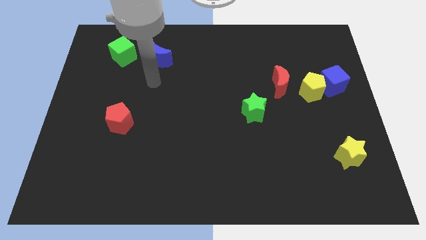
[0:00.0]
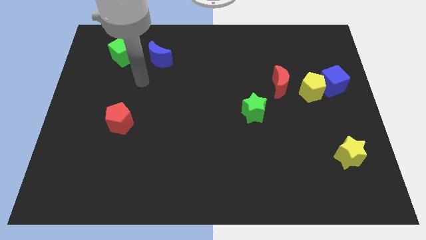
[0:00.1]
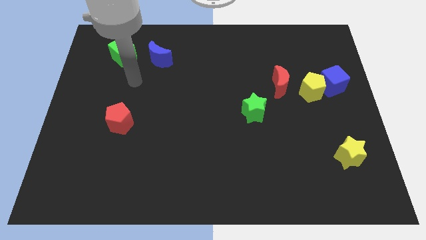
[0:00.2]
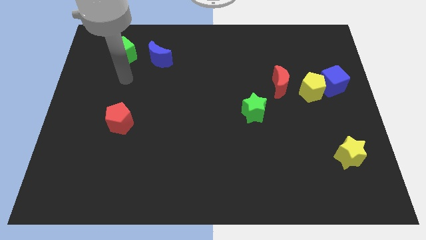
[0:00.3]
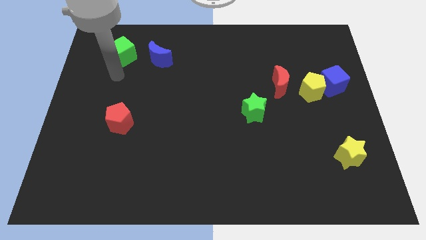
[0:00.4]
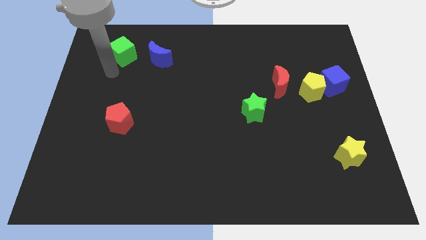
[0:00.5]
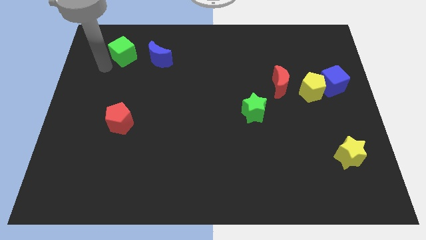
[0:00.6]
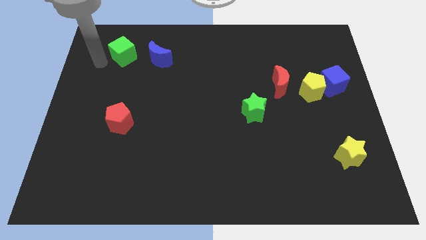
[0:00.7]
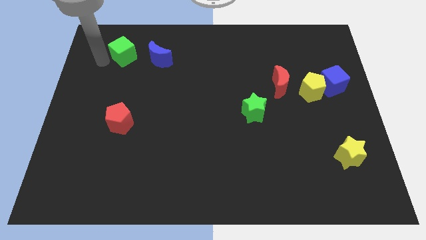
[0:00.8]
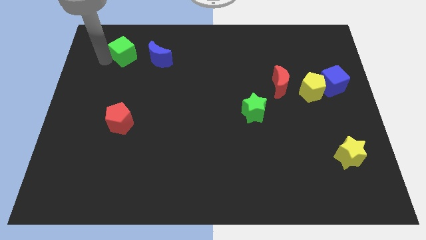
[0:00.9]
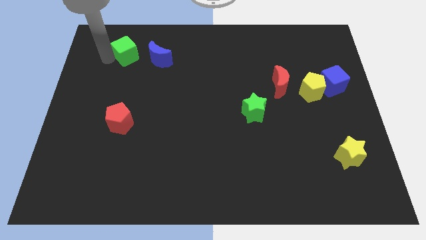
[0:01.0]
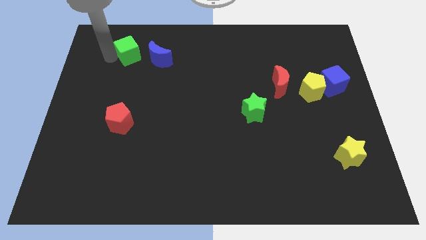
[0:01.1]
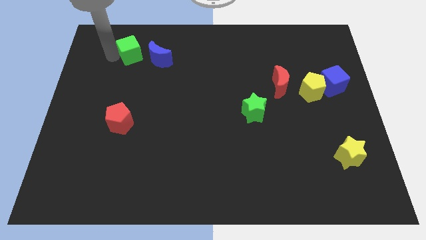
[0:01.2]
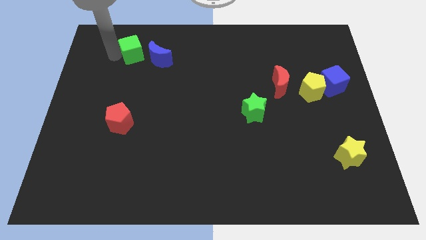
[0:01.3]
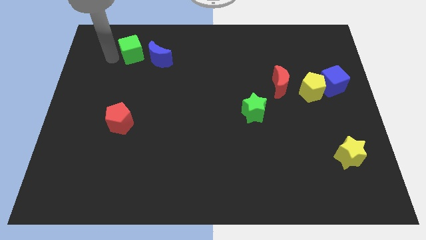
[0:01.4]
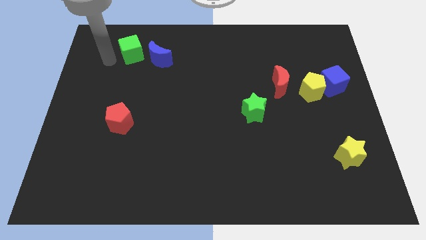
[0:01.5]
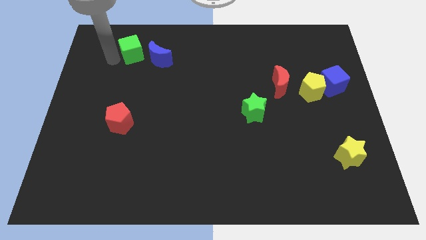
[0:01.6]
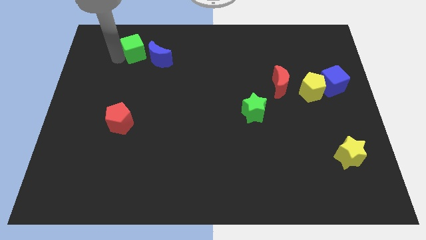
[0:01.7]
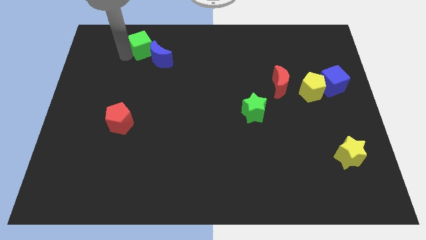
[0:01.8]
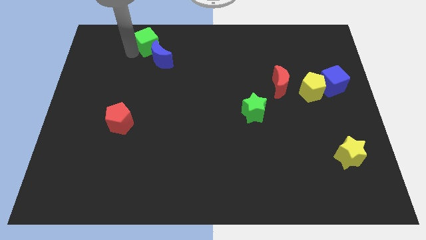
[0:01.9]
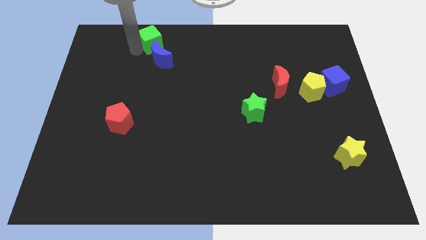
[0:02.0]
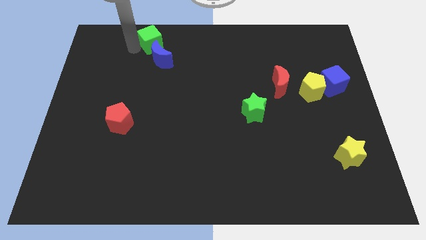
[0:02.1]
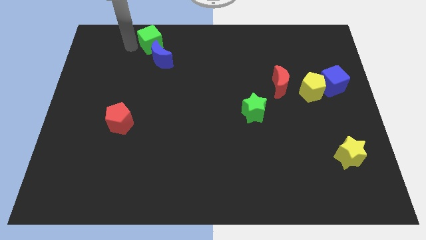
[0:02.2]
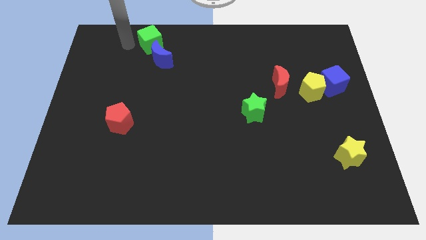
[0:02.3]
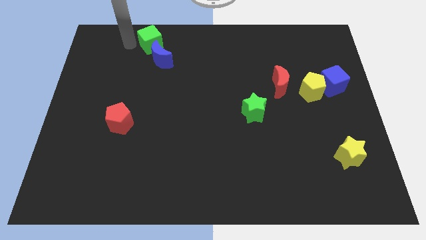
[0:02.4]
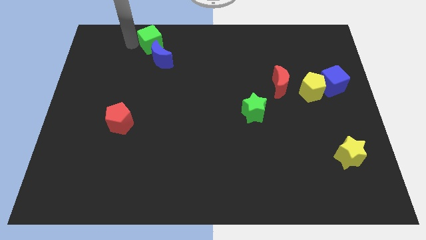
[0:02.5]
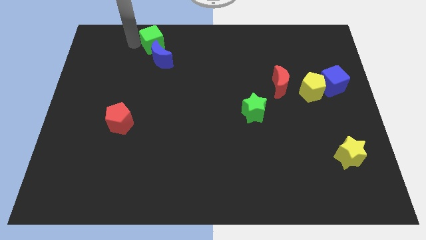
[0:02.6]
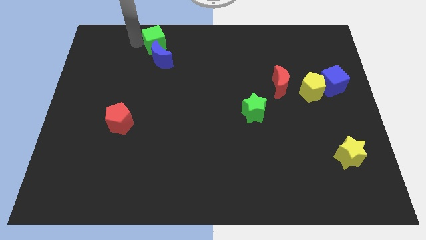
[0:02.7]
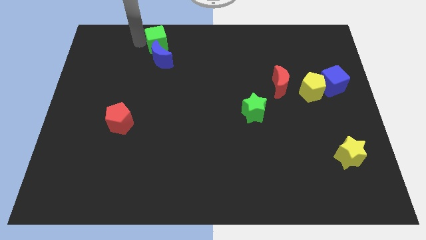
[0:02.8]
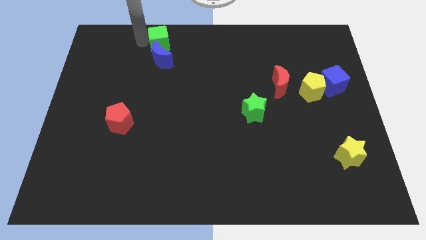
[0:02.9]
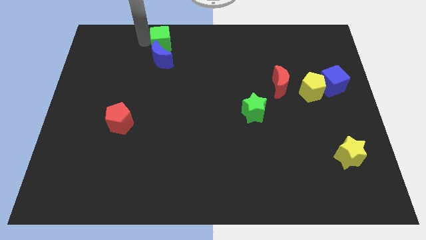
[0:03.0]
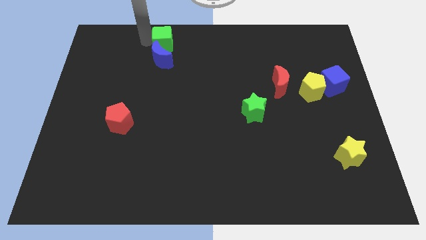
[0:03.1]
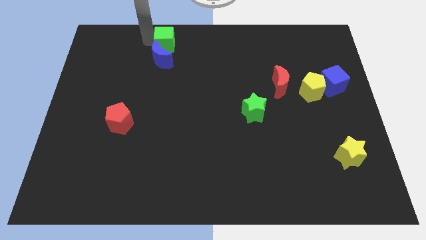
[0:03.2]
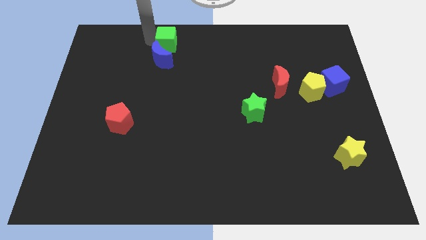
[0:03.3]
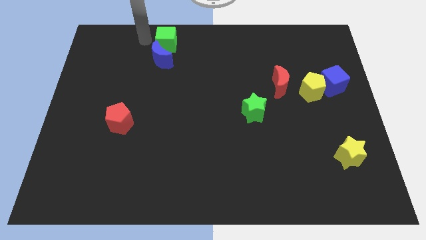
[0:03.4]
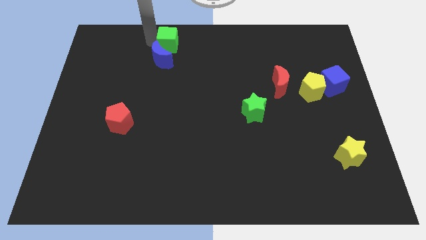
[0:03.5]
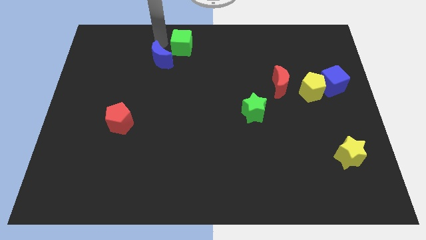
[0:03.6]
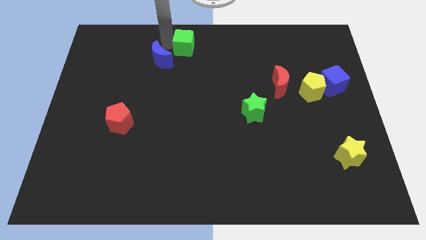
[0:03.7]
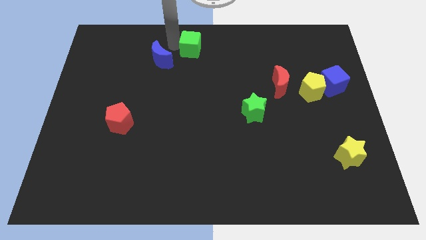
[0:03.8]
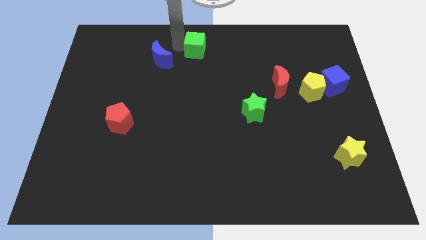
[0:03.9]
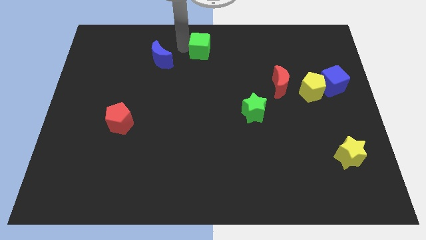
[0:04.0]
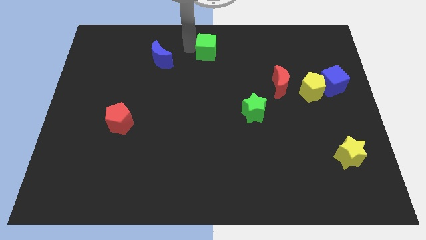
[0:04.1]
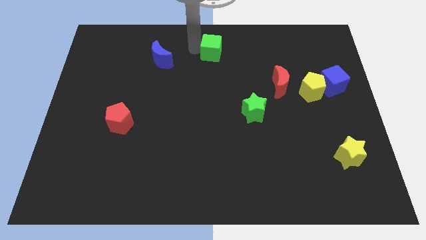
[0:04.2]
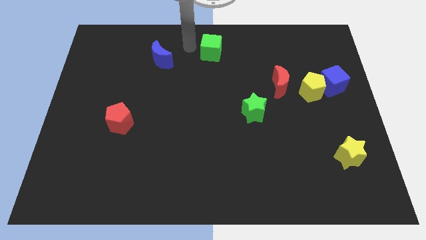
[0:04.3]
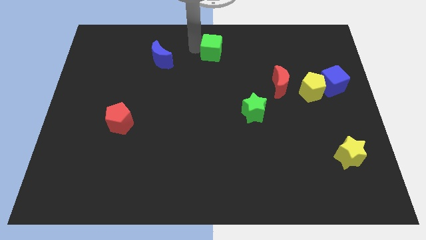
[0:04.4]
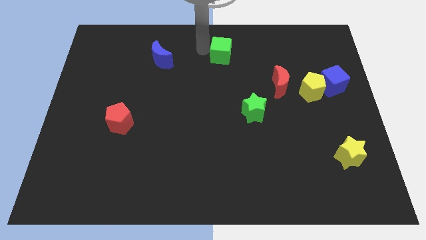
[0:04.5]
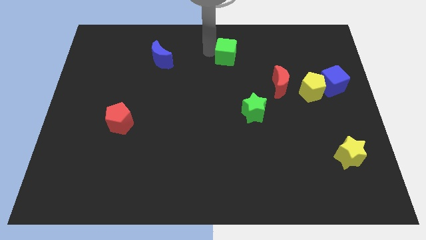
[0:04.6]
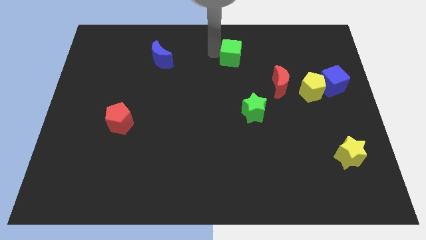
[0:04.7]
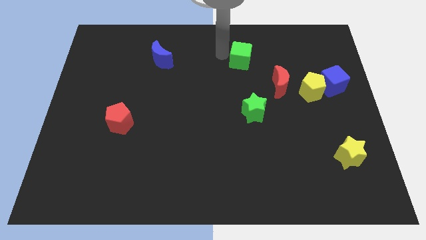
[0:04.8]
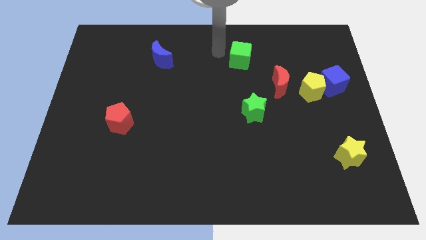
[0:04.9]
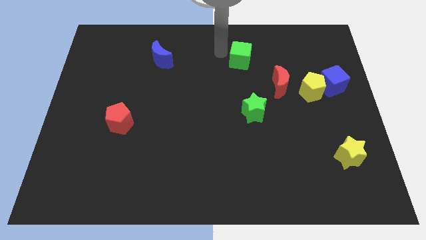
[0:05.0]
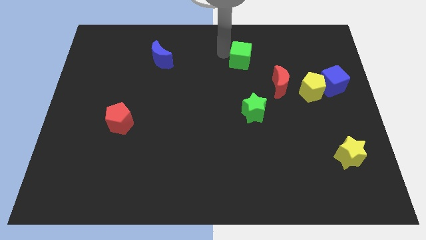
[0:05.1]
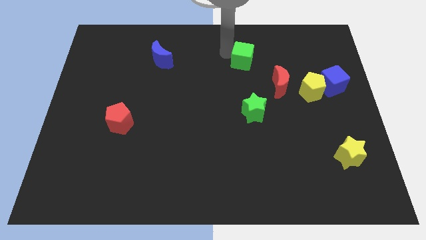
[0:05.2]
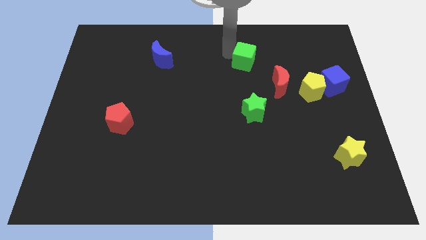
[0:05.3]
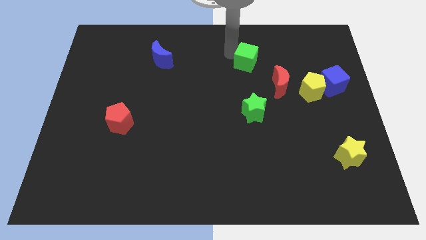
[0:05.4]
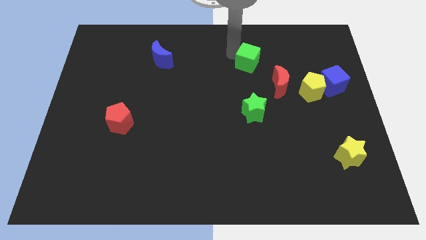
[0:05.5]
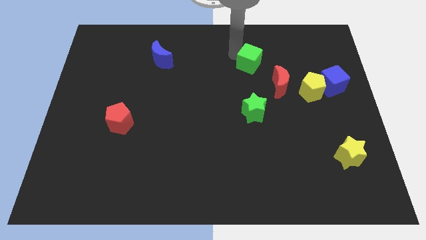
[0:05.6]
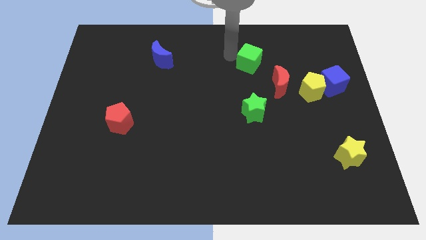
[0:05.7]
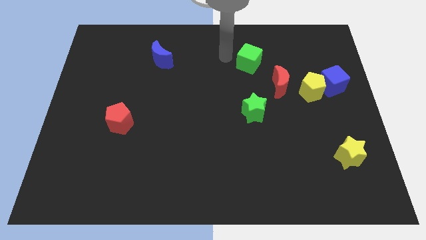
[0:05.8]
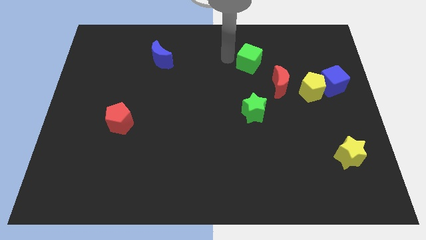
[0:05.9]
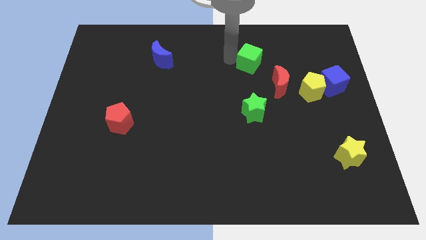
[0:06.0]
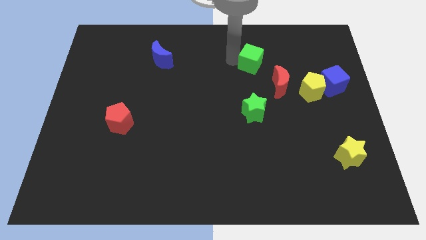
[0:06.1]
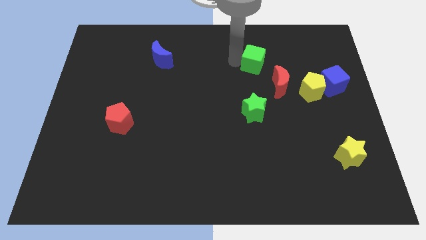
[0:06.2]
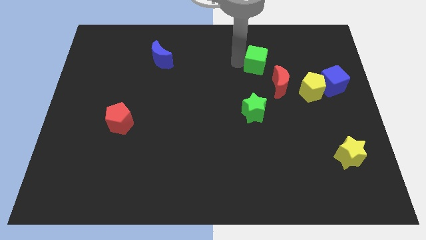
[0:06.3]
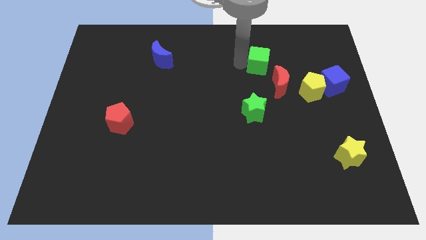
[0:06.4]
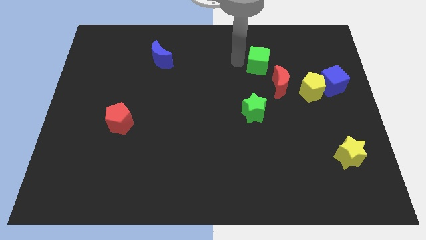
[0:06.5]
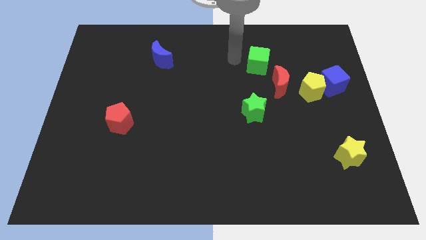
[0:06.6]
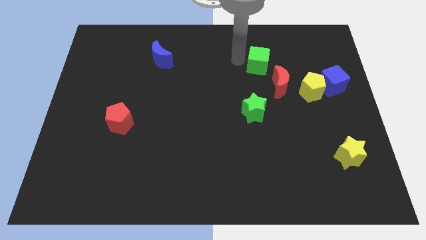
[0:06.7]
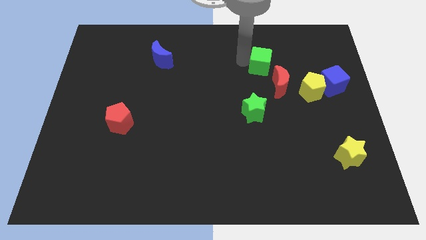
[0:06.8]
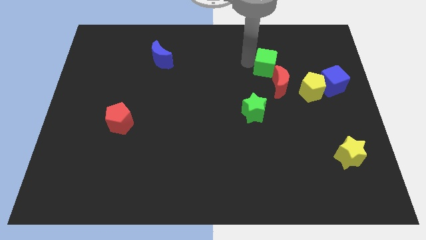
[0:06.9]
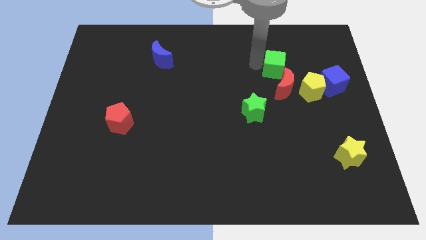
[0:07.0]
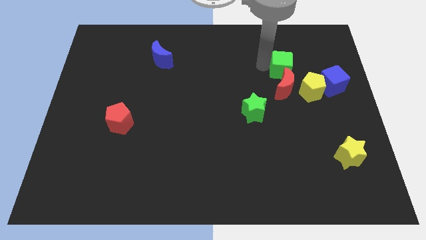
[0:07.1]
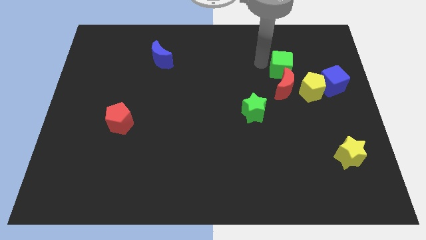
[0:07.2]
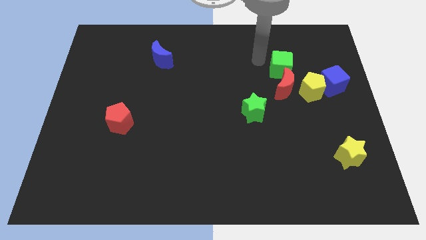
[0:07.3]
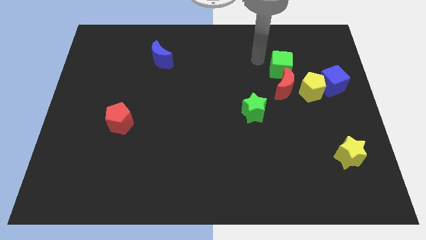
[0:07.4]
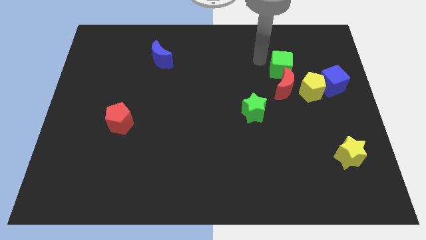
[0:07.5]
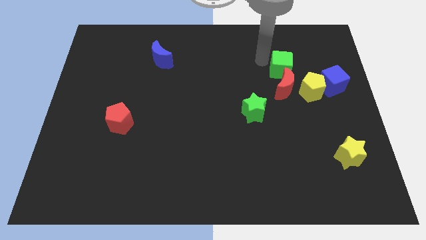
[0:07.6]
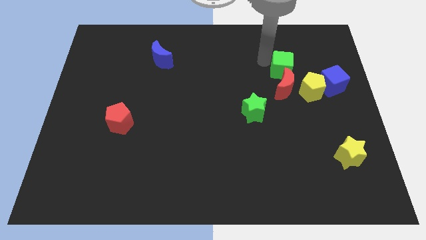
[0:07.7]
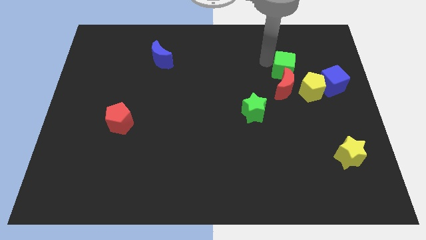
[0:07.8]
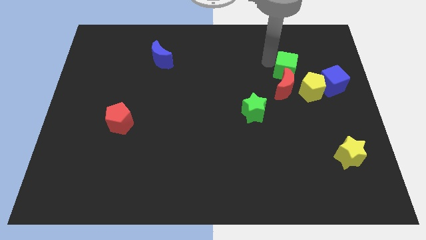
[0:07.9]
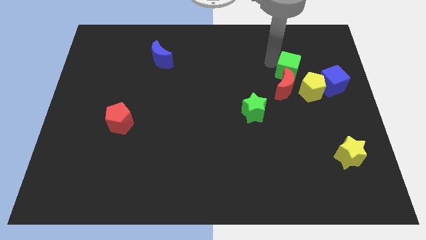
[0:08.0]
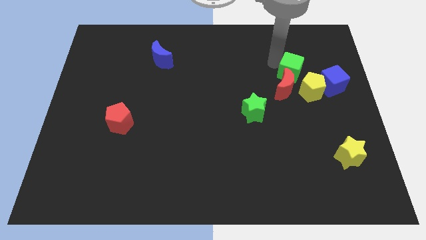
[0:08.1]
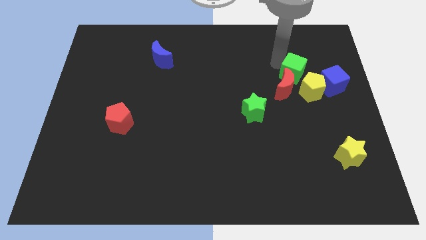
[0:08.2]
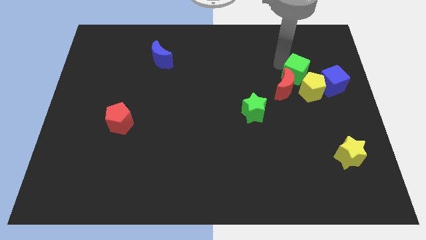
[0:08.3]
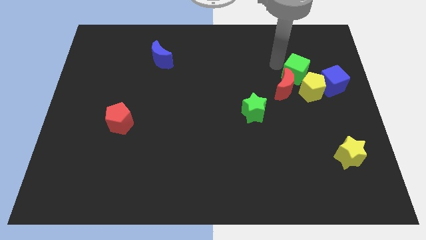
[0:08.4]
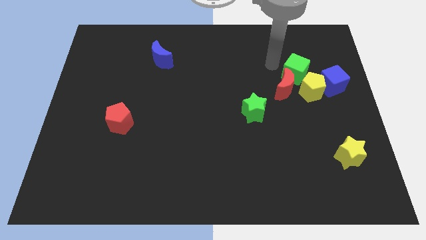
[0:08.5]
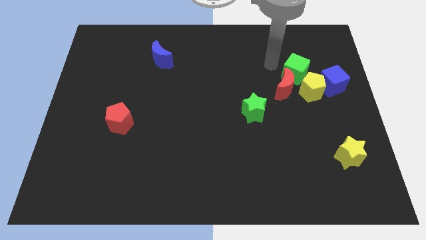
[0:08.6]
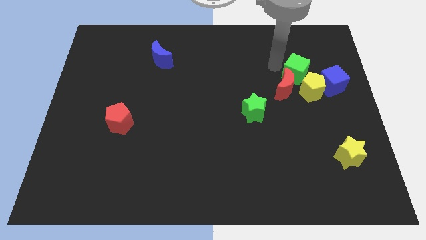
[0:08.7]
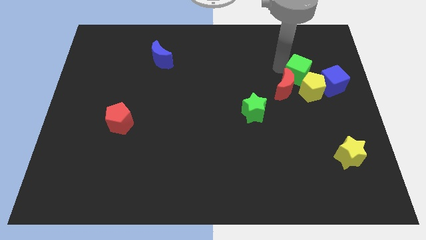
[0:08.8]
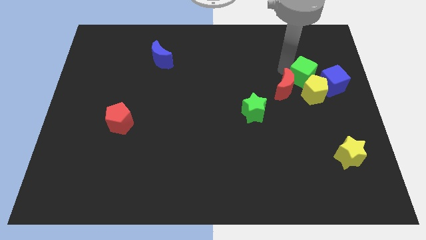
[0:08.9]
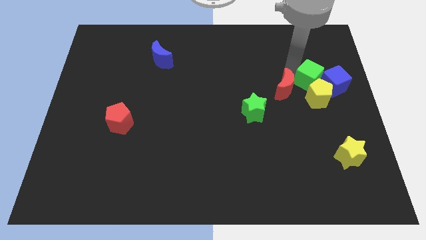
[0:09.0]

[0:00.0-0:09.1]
push the green cube next to the blue cube
